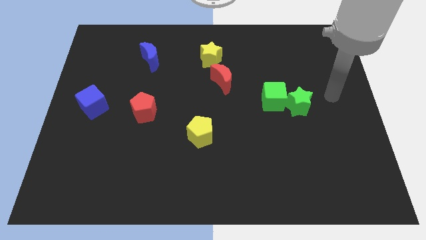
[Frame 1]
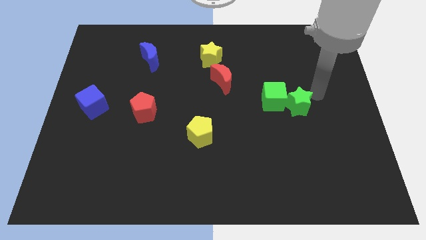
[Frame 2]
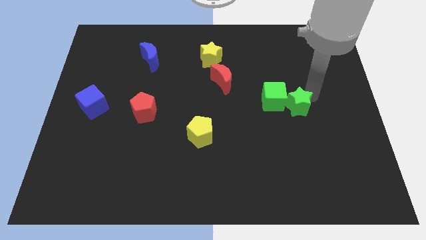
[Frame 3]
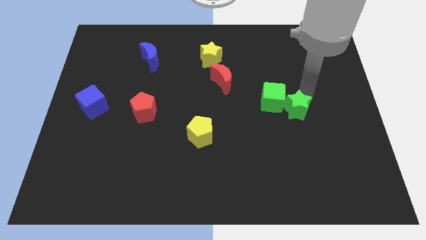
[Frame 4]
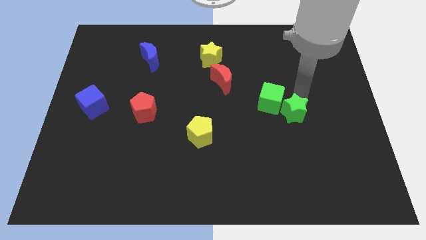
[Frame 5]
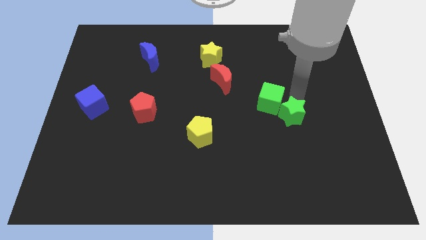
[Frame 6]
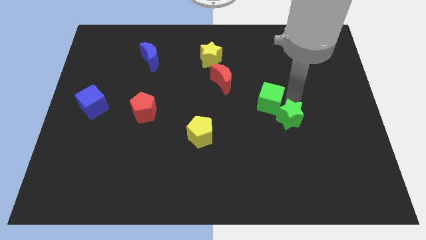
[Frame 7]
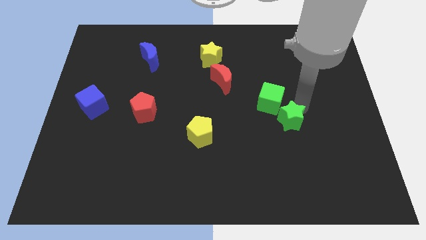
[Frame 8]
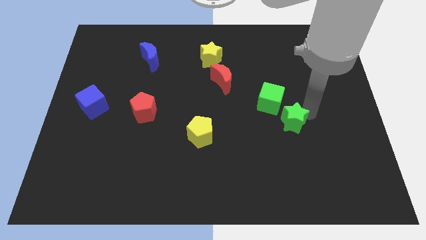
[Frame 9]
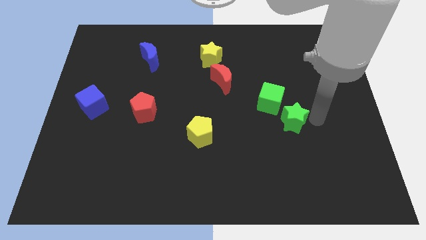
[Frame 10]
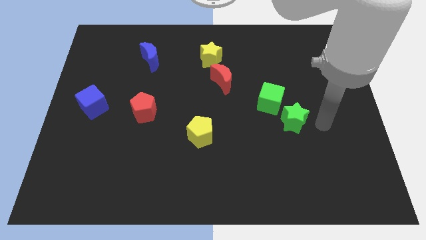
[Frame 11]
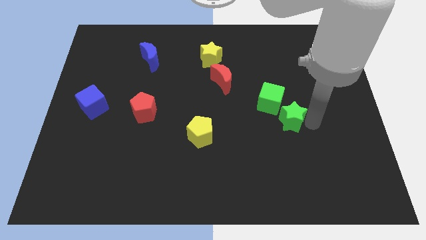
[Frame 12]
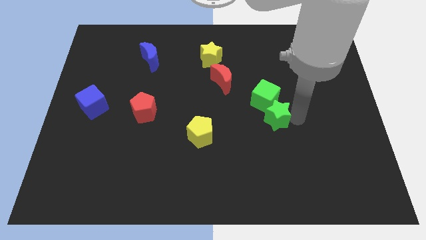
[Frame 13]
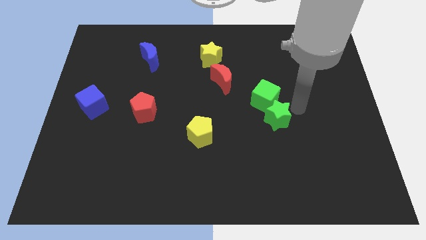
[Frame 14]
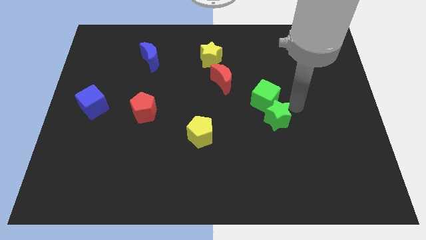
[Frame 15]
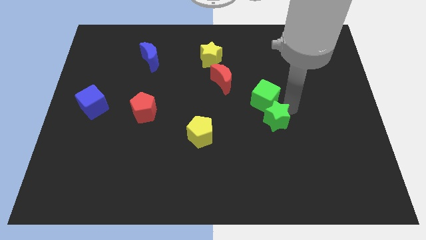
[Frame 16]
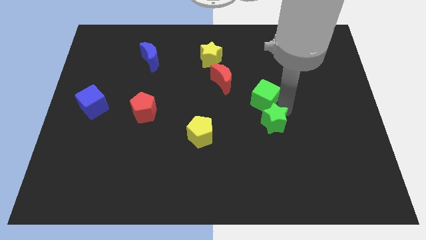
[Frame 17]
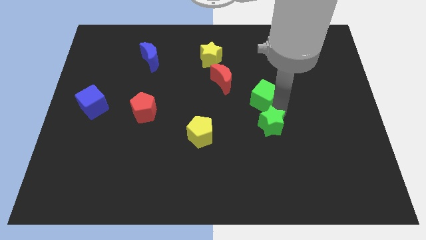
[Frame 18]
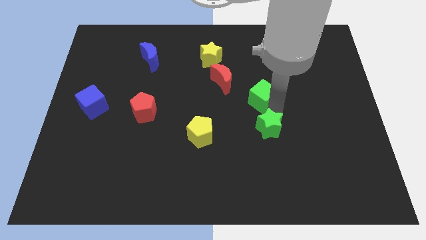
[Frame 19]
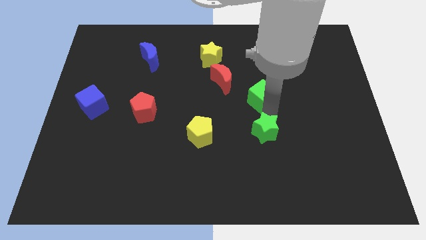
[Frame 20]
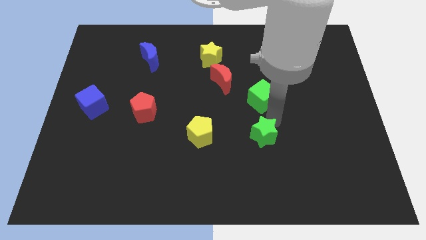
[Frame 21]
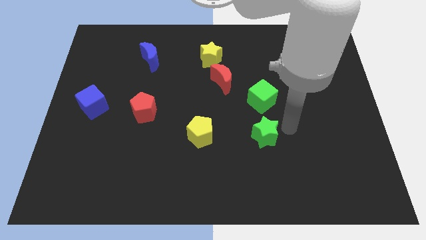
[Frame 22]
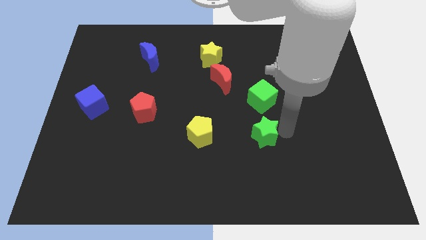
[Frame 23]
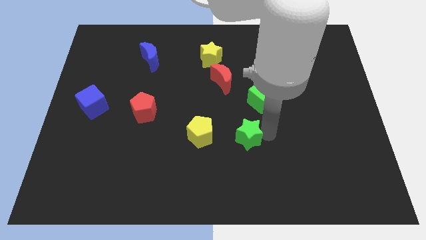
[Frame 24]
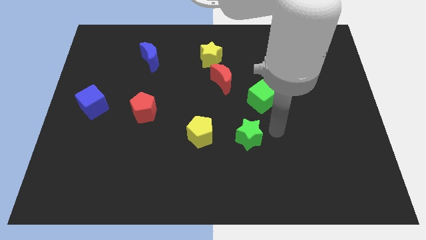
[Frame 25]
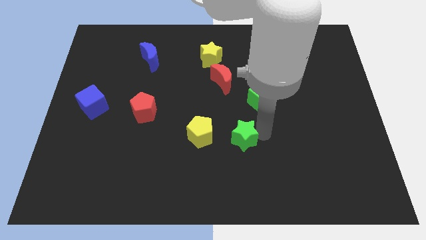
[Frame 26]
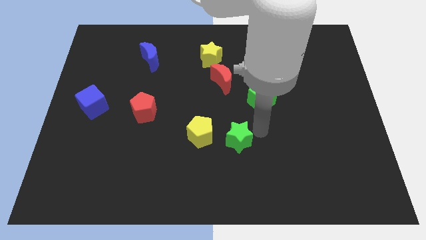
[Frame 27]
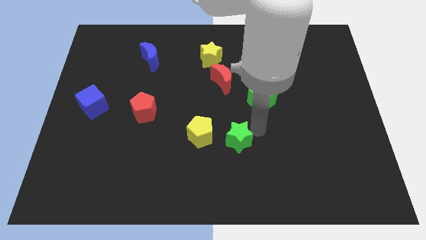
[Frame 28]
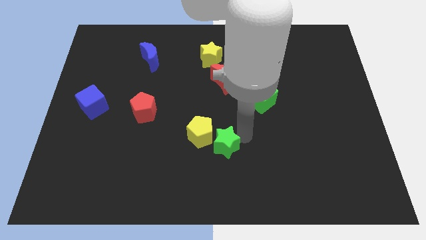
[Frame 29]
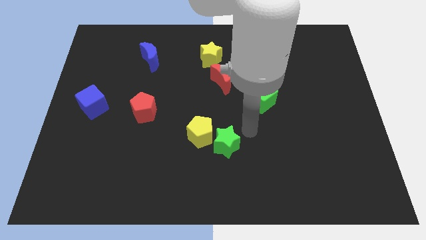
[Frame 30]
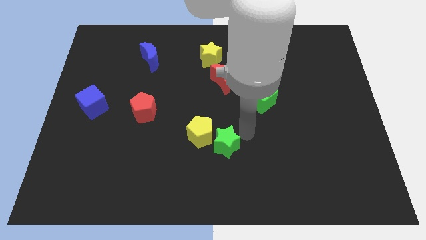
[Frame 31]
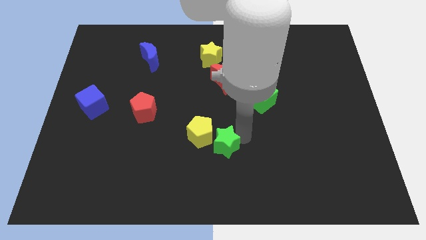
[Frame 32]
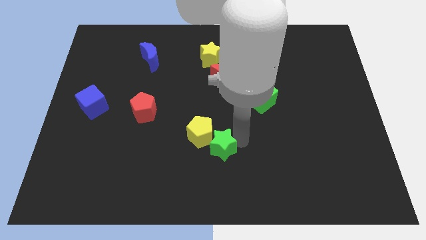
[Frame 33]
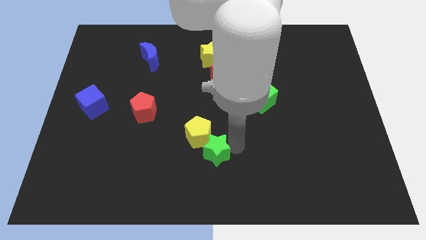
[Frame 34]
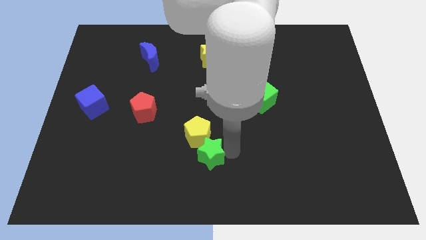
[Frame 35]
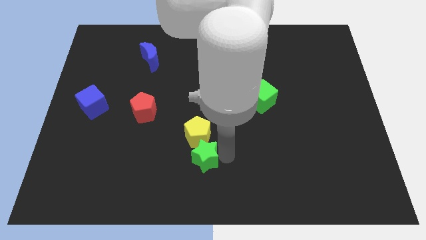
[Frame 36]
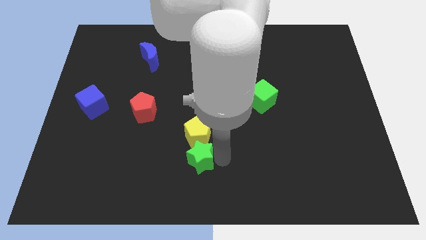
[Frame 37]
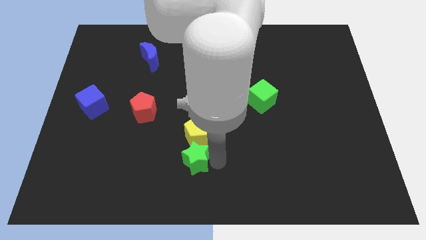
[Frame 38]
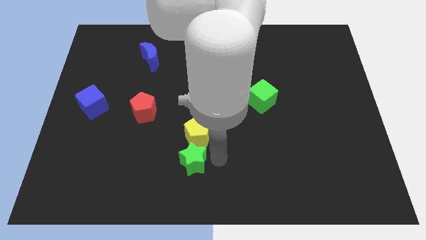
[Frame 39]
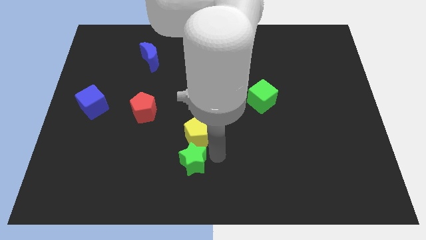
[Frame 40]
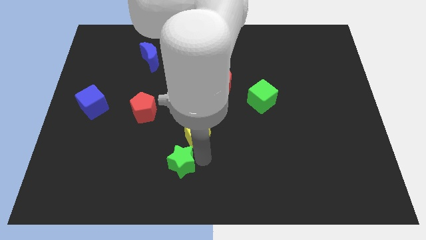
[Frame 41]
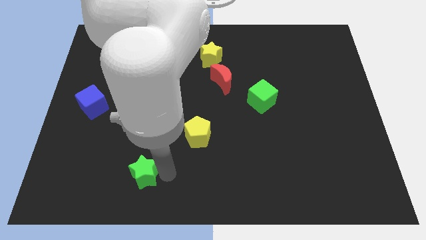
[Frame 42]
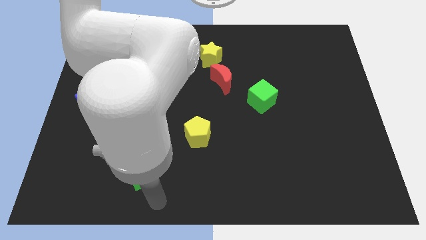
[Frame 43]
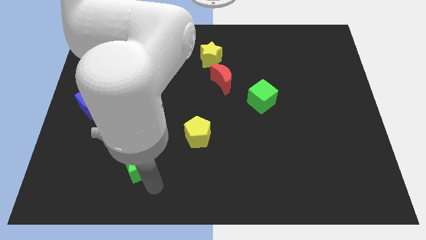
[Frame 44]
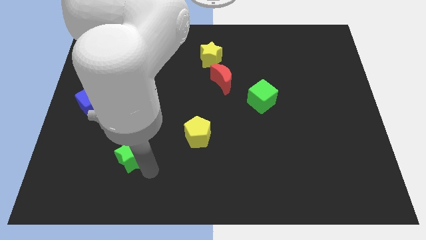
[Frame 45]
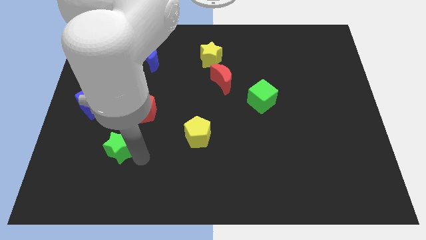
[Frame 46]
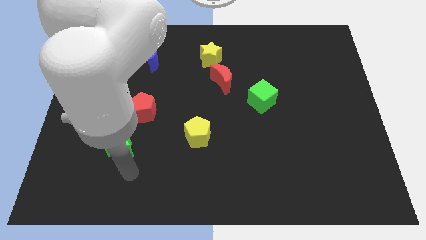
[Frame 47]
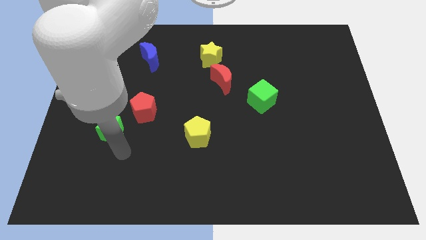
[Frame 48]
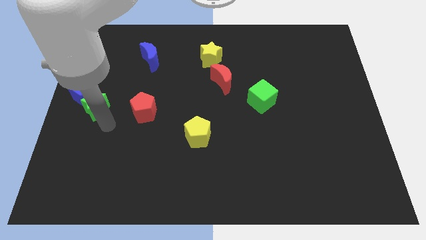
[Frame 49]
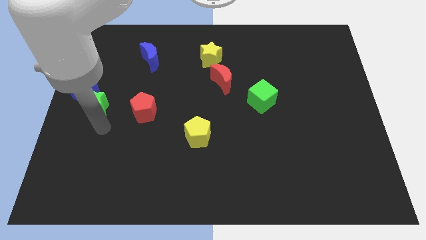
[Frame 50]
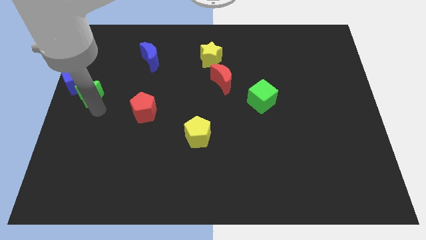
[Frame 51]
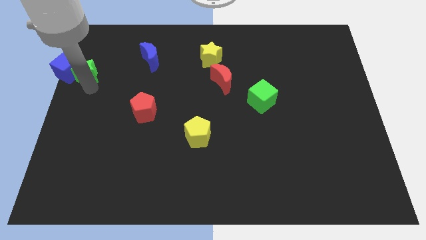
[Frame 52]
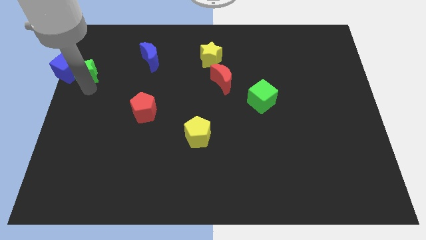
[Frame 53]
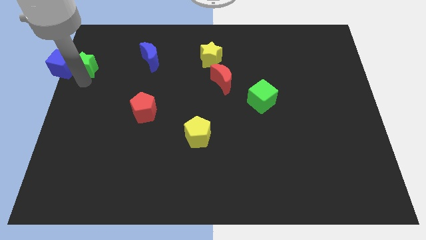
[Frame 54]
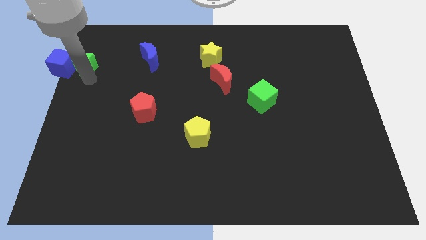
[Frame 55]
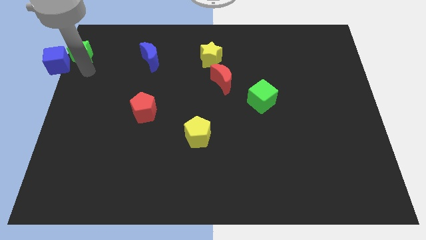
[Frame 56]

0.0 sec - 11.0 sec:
slide the green star to the top left corner
